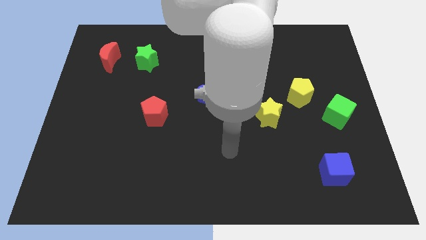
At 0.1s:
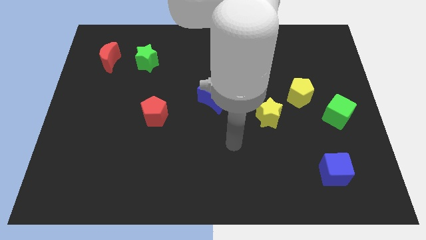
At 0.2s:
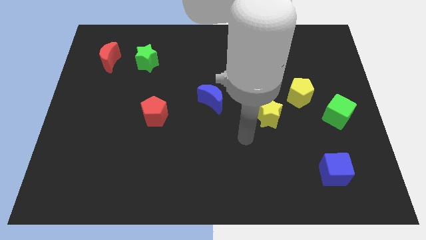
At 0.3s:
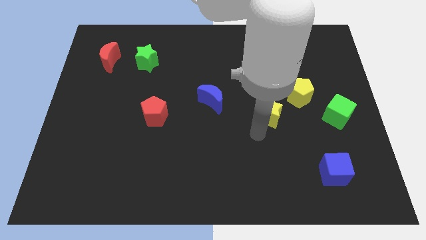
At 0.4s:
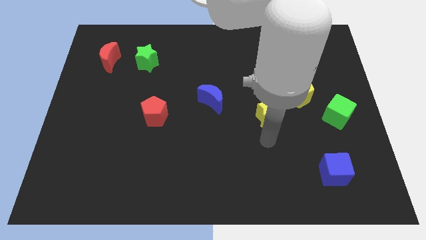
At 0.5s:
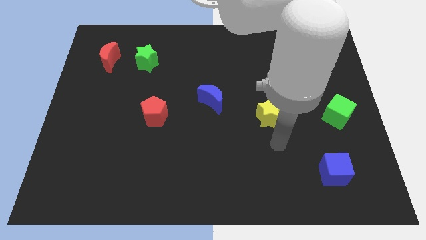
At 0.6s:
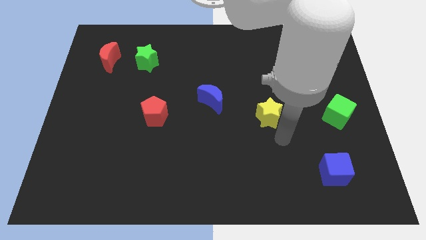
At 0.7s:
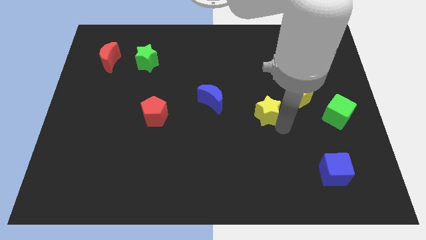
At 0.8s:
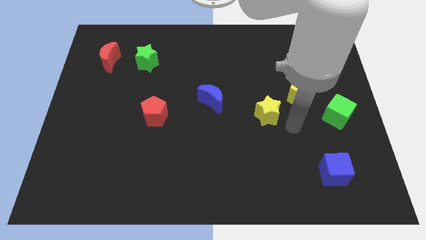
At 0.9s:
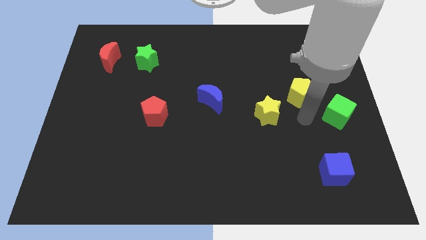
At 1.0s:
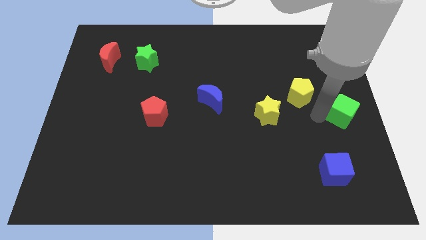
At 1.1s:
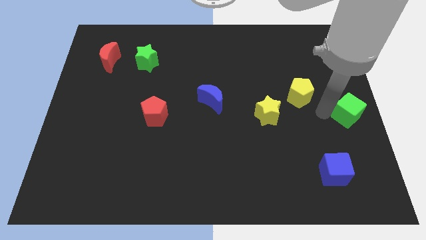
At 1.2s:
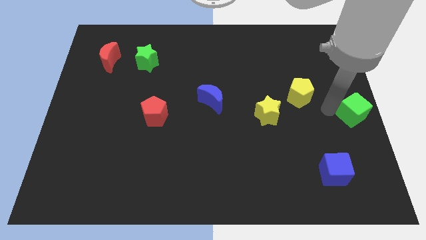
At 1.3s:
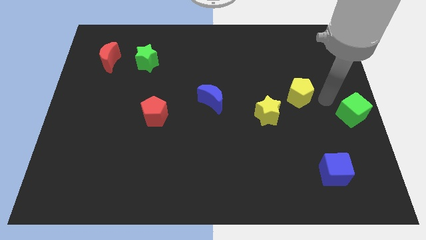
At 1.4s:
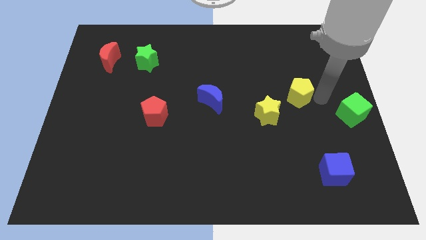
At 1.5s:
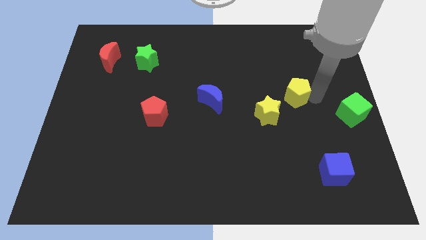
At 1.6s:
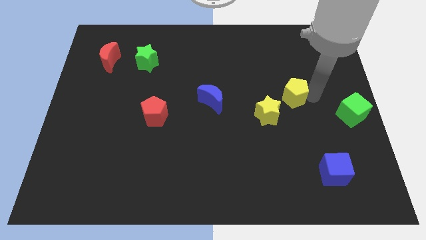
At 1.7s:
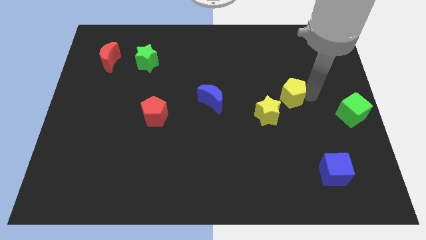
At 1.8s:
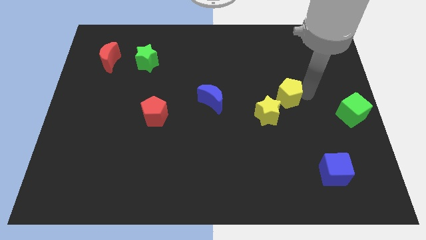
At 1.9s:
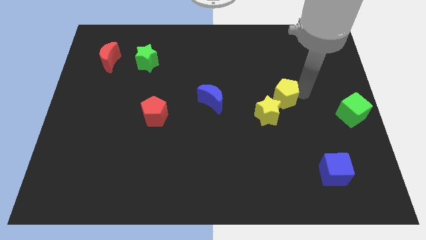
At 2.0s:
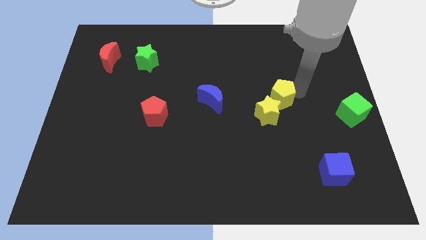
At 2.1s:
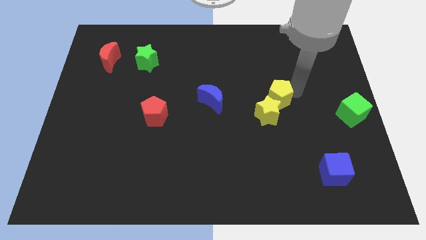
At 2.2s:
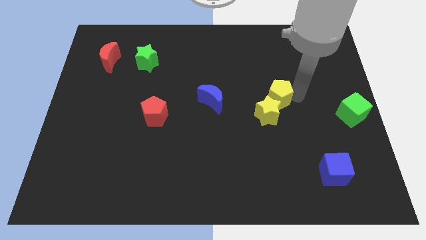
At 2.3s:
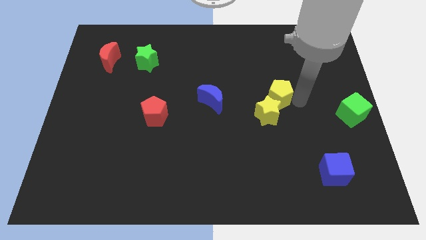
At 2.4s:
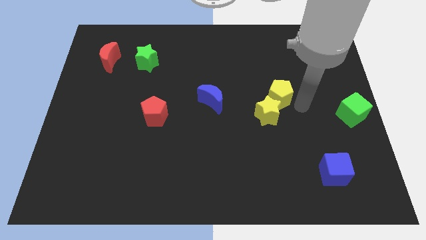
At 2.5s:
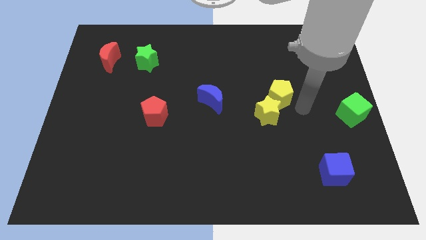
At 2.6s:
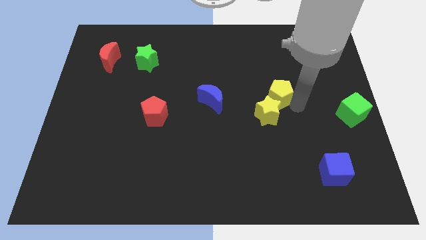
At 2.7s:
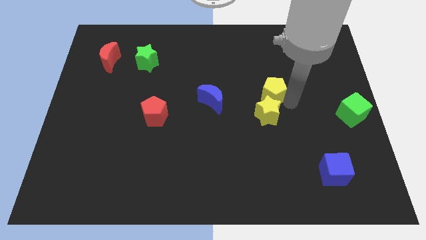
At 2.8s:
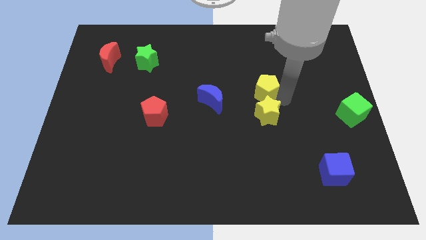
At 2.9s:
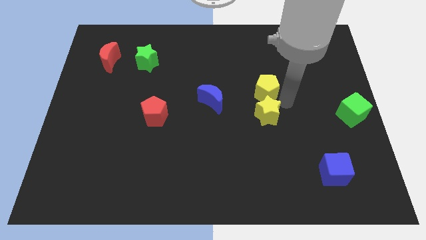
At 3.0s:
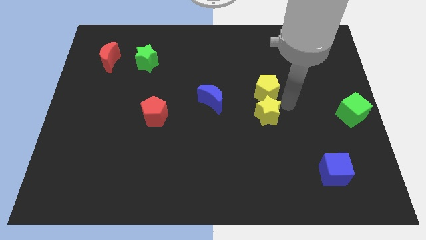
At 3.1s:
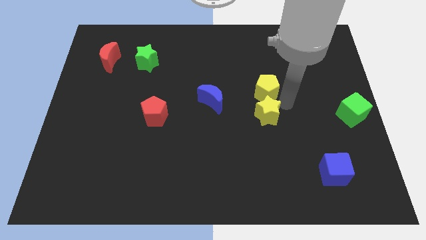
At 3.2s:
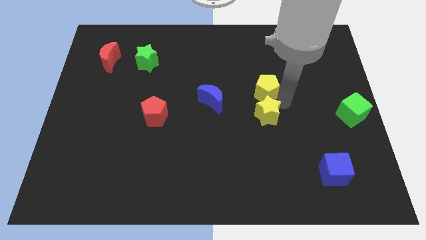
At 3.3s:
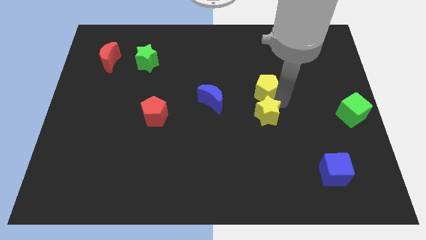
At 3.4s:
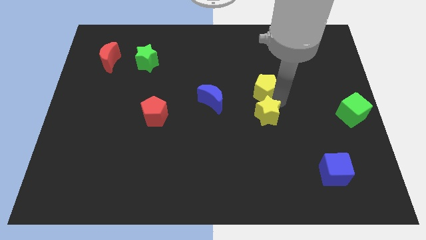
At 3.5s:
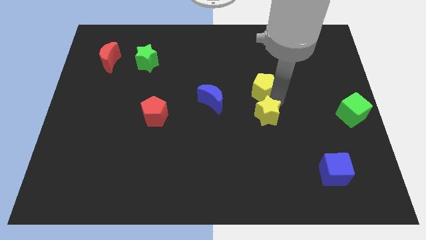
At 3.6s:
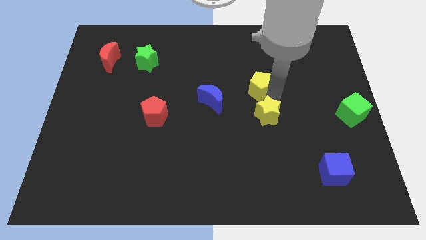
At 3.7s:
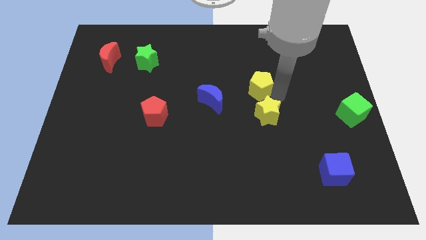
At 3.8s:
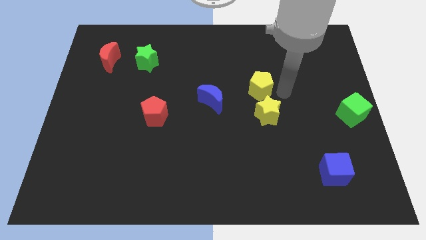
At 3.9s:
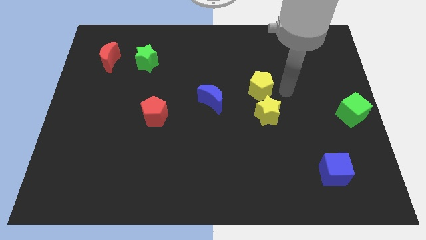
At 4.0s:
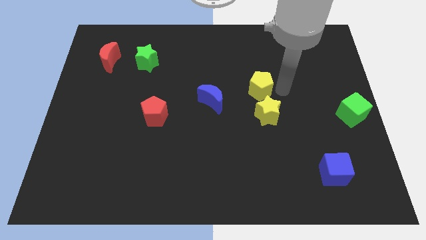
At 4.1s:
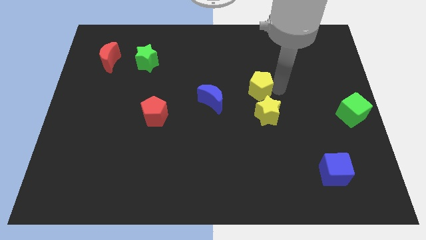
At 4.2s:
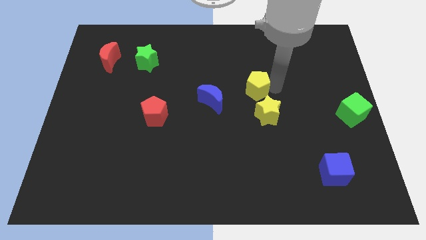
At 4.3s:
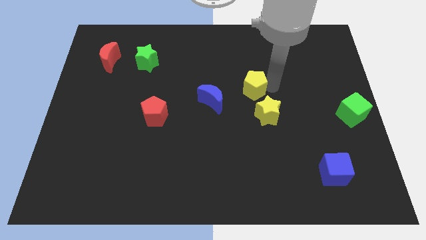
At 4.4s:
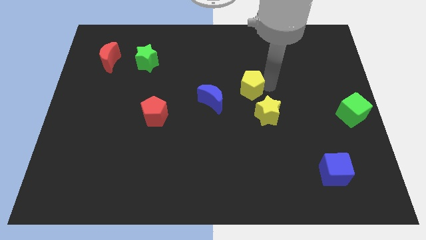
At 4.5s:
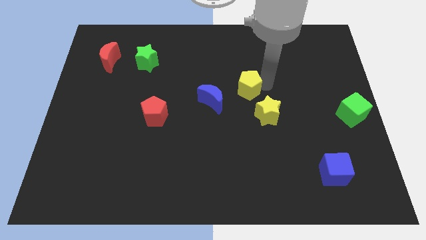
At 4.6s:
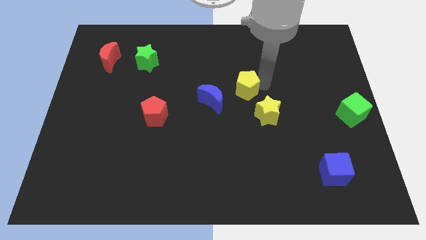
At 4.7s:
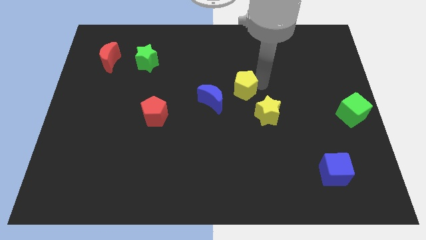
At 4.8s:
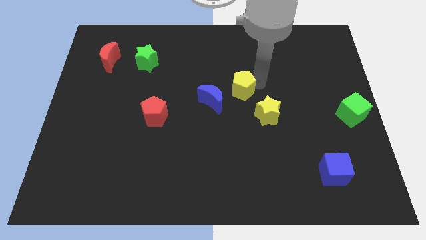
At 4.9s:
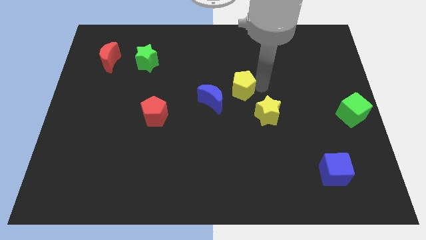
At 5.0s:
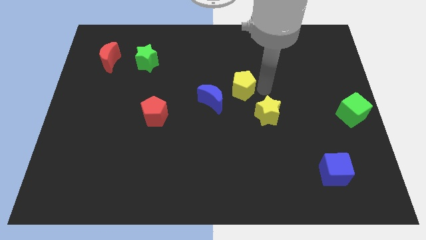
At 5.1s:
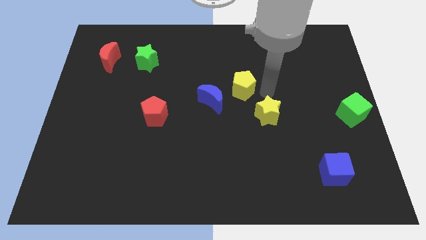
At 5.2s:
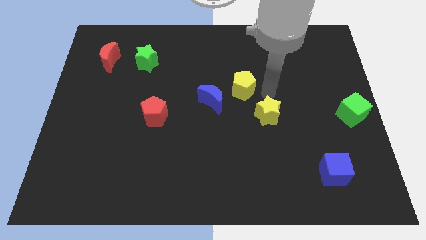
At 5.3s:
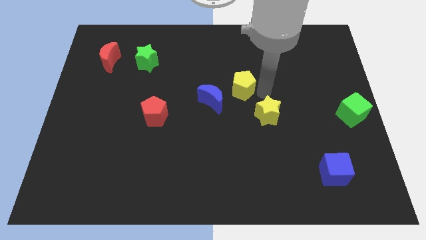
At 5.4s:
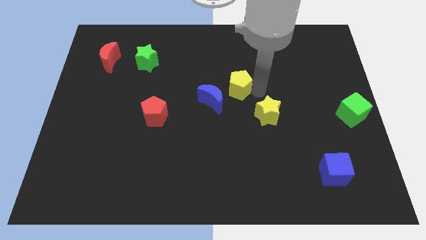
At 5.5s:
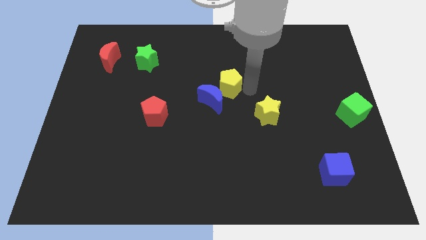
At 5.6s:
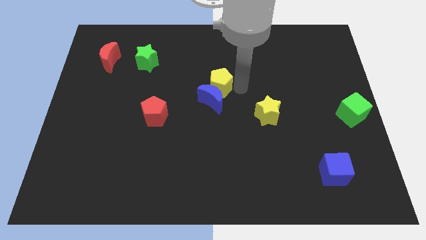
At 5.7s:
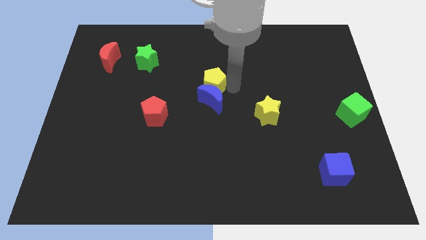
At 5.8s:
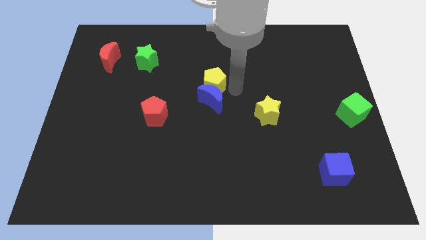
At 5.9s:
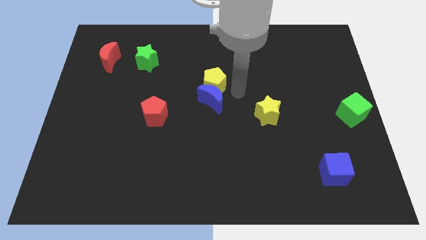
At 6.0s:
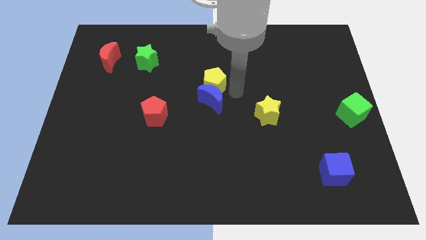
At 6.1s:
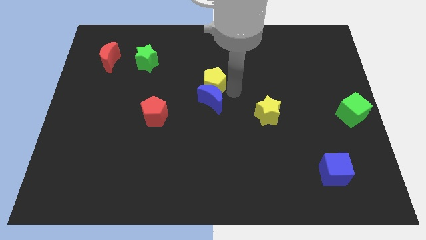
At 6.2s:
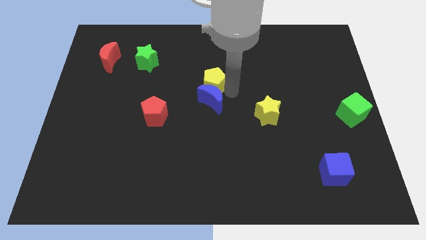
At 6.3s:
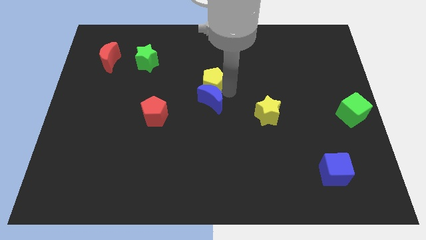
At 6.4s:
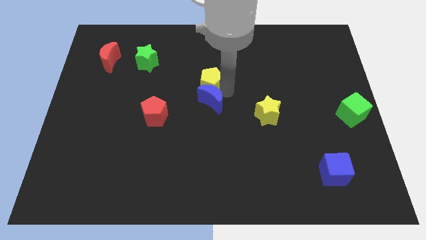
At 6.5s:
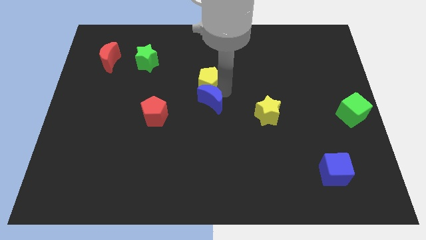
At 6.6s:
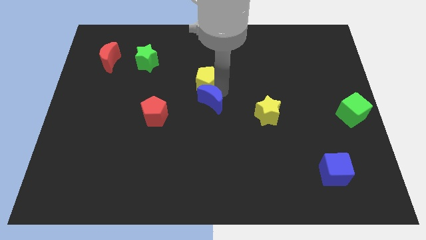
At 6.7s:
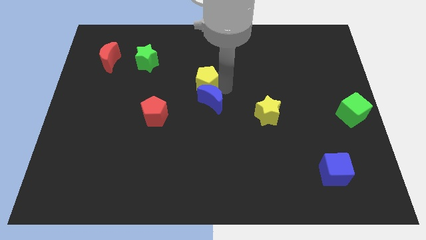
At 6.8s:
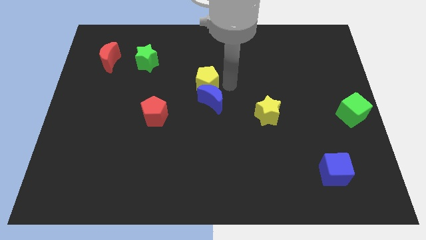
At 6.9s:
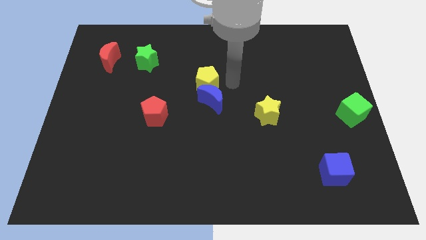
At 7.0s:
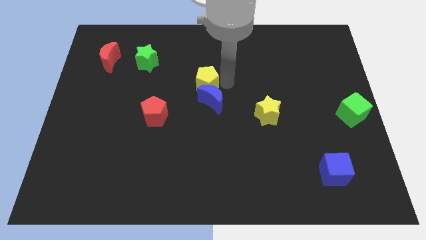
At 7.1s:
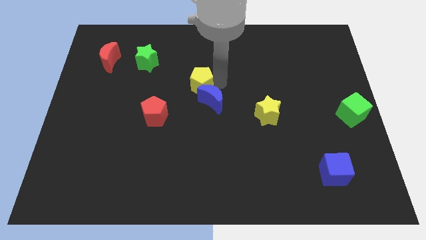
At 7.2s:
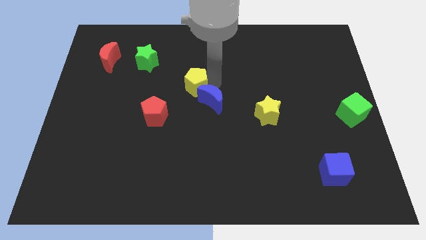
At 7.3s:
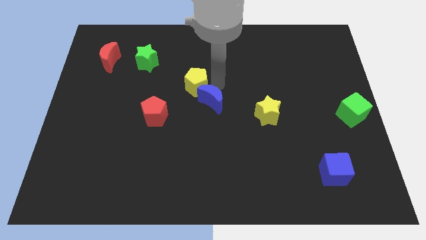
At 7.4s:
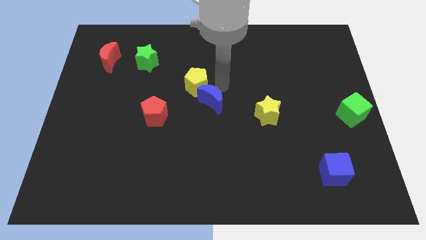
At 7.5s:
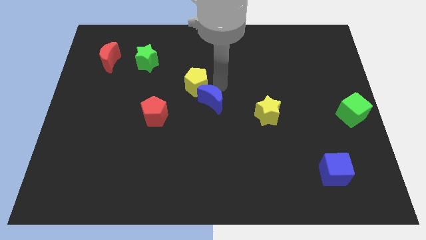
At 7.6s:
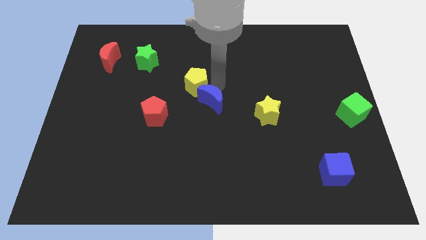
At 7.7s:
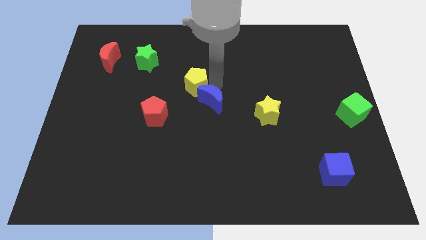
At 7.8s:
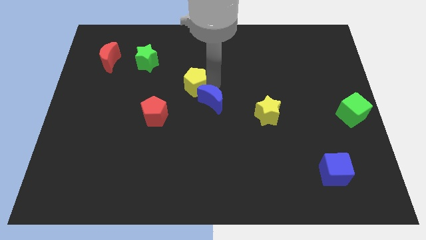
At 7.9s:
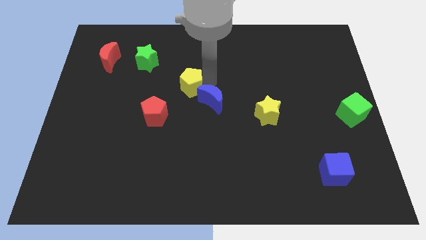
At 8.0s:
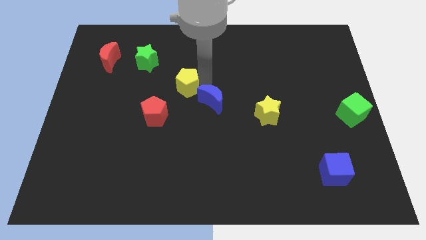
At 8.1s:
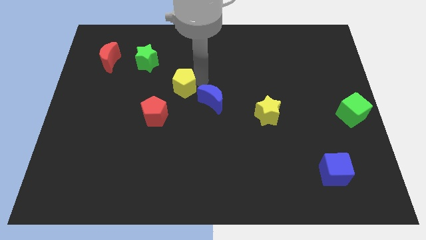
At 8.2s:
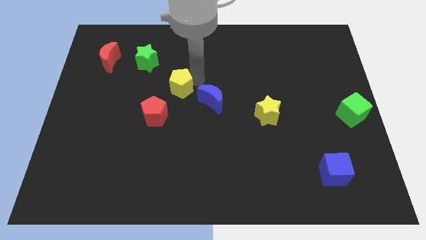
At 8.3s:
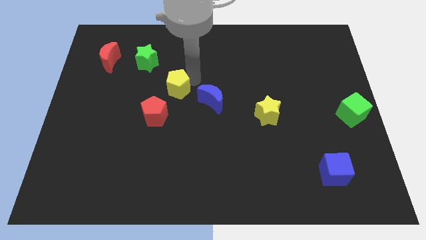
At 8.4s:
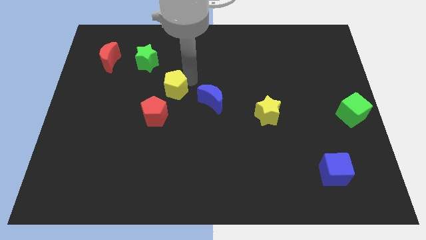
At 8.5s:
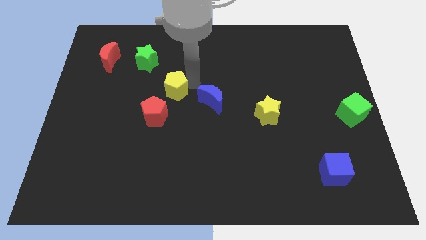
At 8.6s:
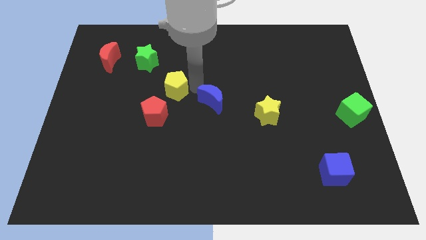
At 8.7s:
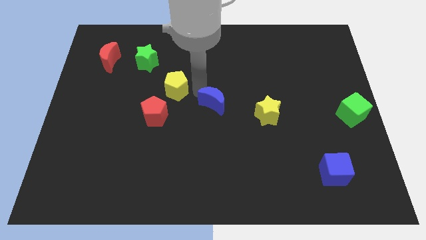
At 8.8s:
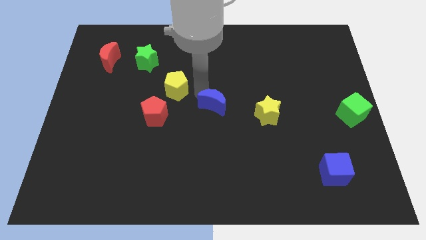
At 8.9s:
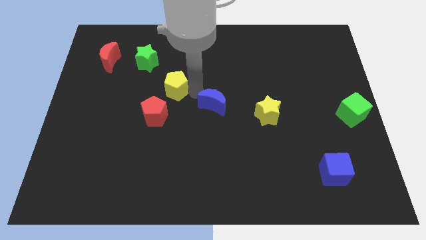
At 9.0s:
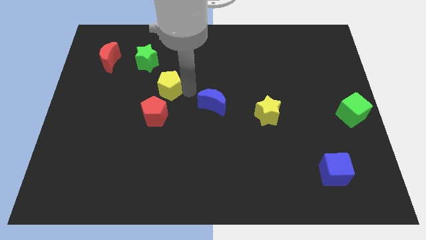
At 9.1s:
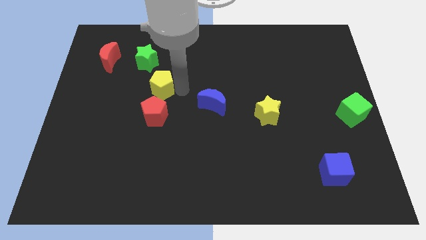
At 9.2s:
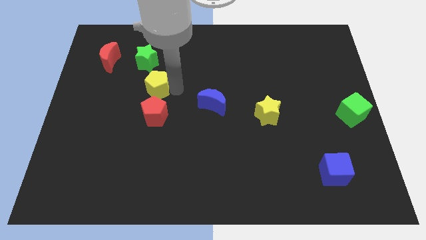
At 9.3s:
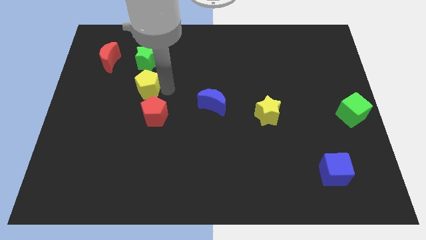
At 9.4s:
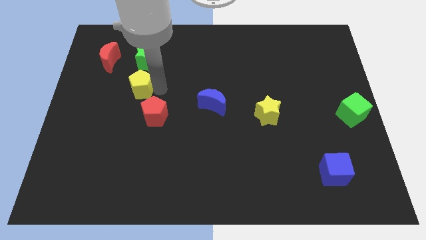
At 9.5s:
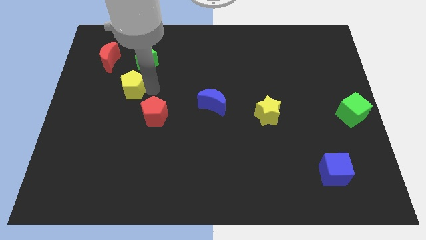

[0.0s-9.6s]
put the yellow pentagon to the bottom right side of the red moon
